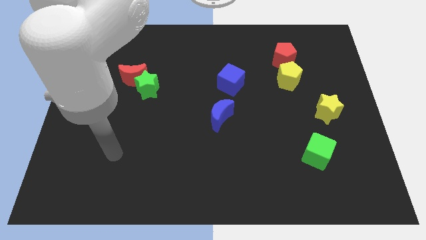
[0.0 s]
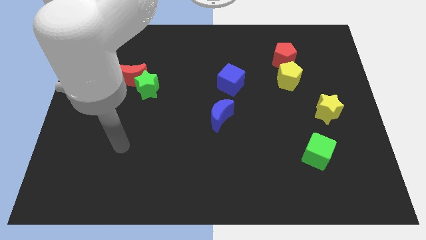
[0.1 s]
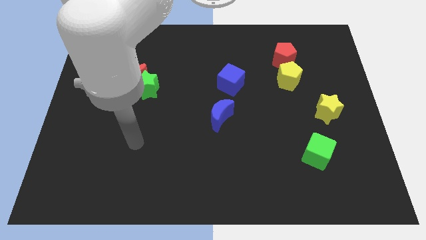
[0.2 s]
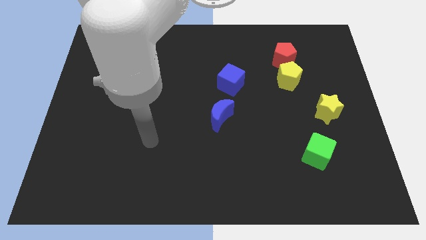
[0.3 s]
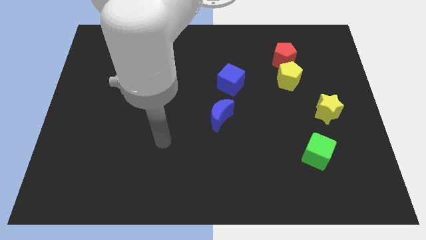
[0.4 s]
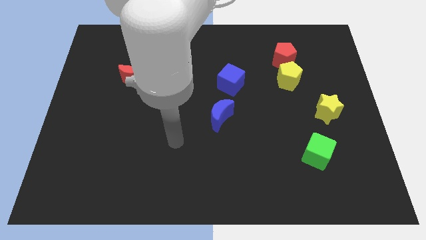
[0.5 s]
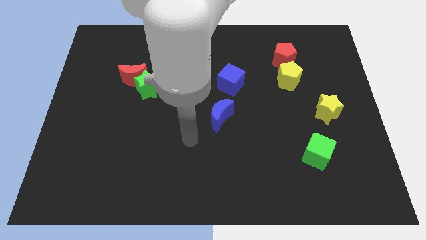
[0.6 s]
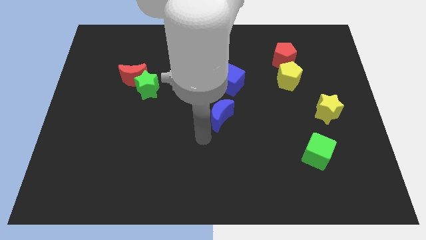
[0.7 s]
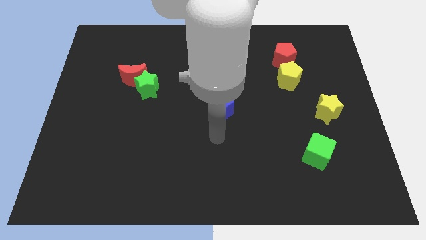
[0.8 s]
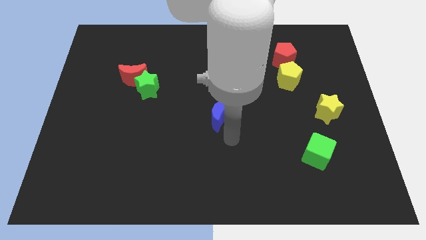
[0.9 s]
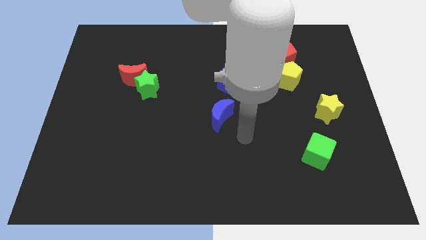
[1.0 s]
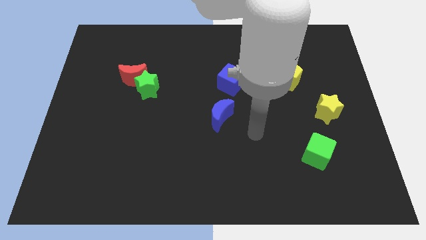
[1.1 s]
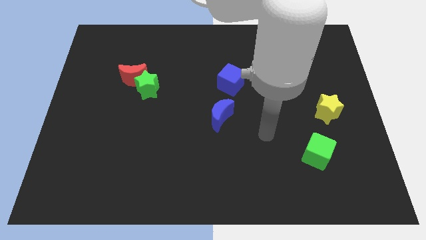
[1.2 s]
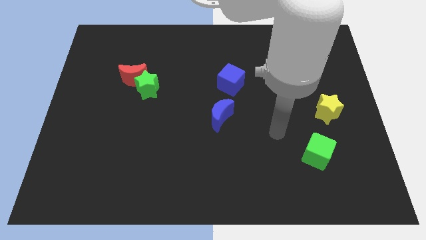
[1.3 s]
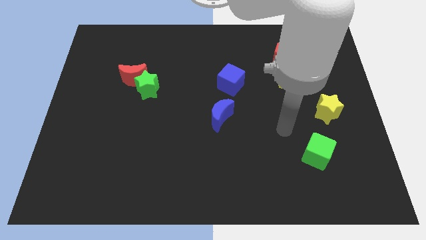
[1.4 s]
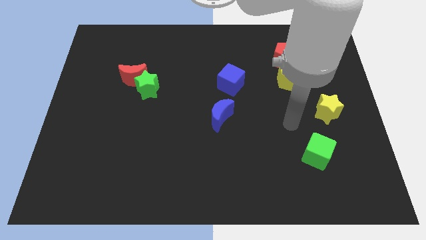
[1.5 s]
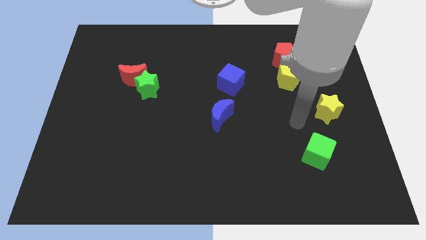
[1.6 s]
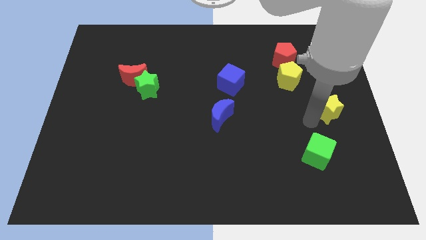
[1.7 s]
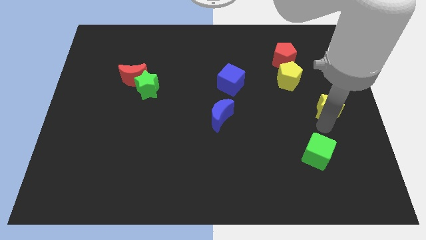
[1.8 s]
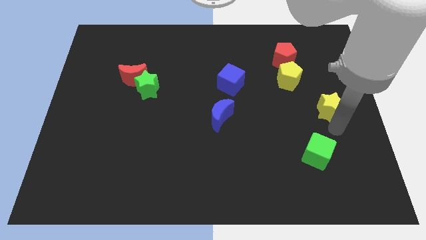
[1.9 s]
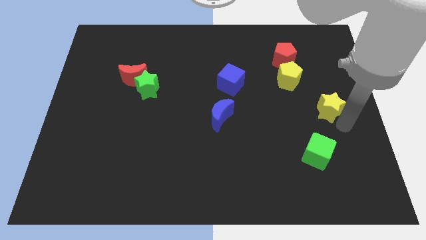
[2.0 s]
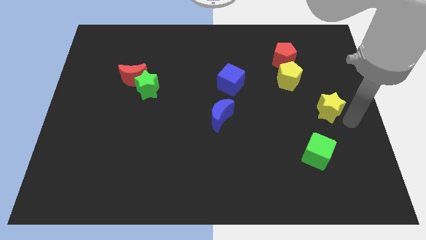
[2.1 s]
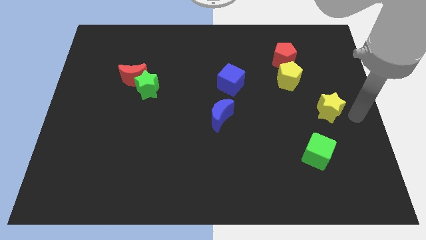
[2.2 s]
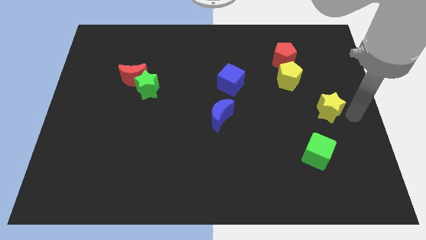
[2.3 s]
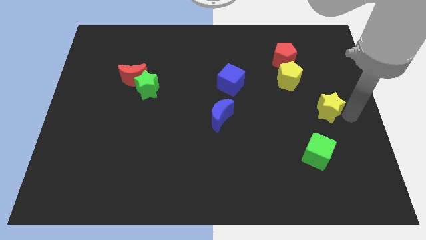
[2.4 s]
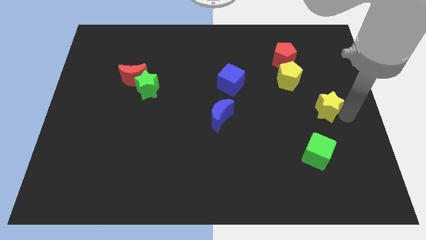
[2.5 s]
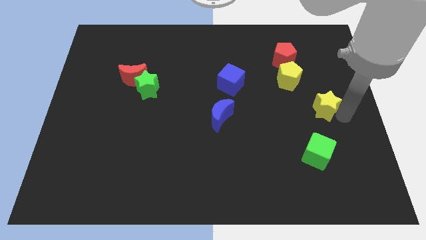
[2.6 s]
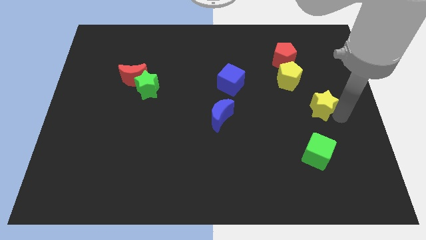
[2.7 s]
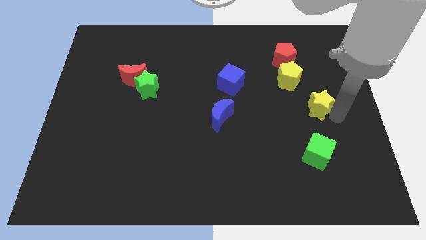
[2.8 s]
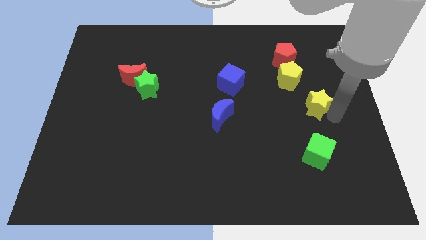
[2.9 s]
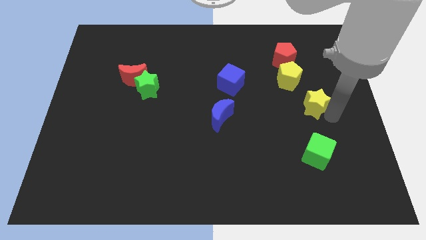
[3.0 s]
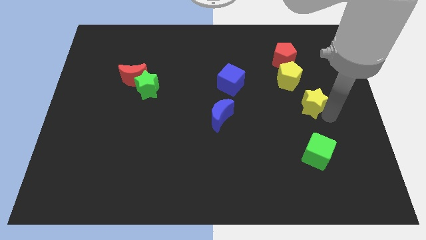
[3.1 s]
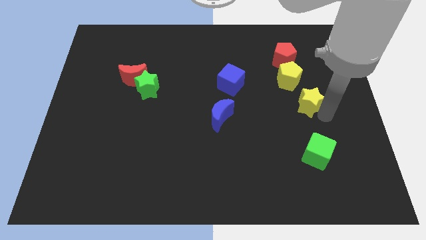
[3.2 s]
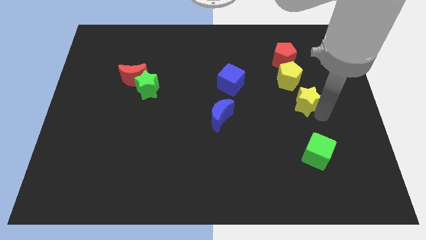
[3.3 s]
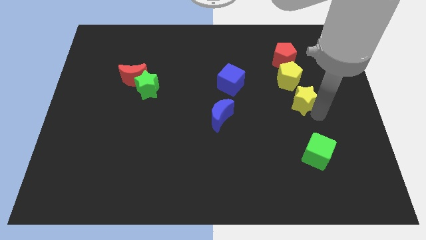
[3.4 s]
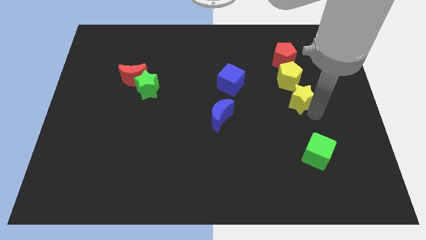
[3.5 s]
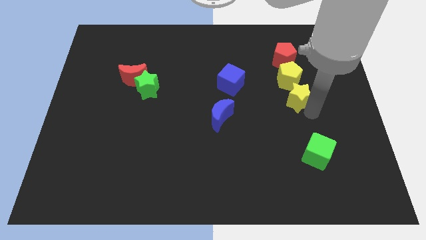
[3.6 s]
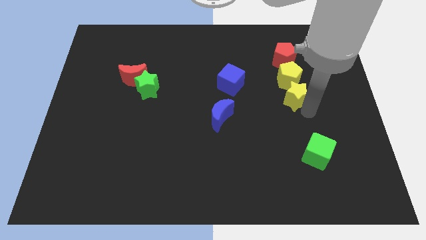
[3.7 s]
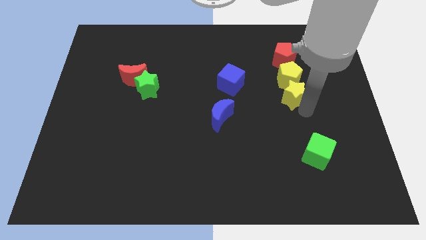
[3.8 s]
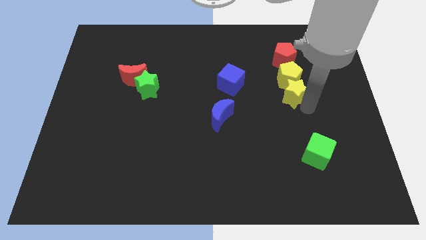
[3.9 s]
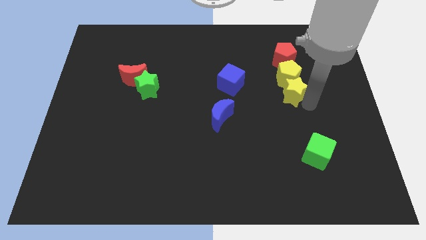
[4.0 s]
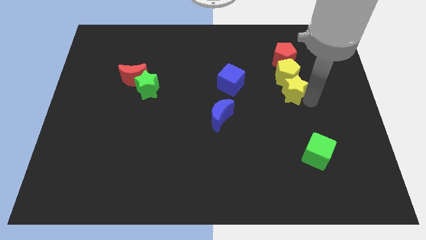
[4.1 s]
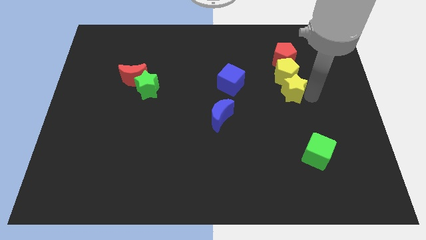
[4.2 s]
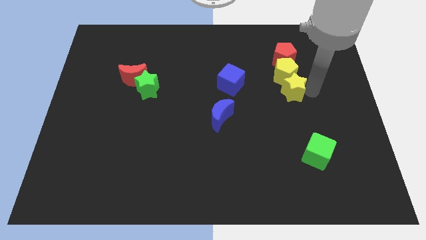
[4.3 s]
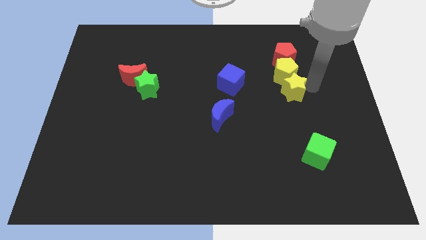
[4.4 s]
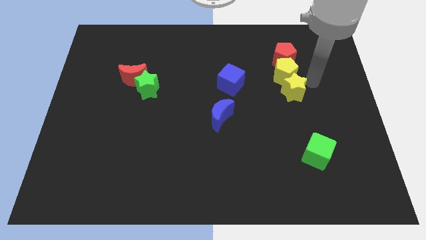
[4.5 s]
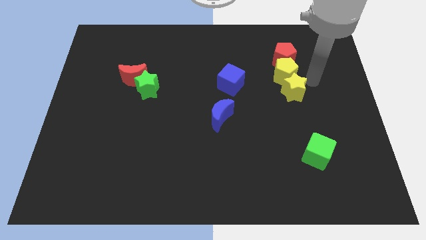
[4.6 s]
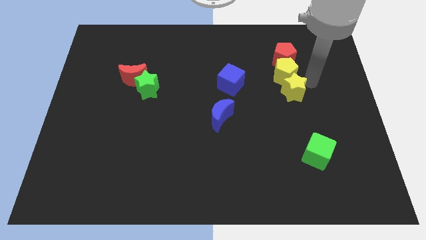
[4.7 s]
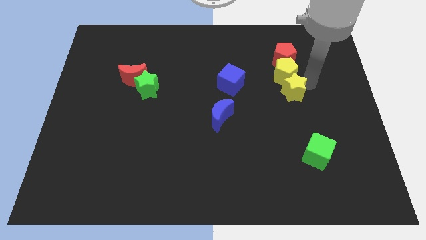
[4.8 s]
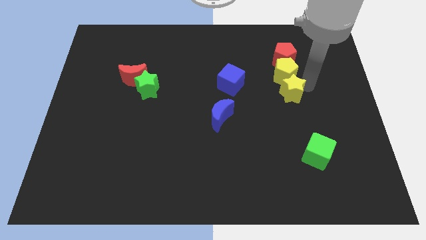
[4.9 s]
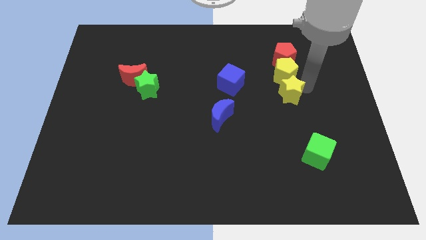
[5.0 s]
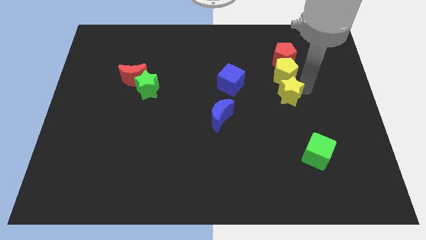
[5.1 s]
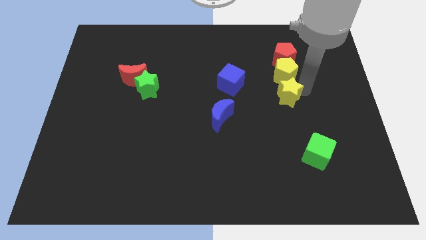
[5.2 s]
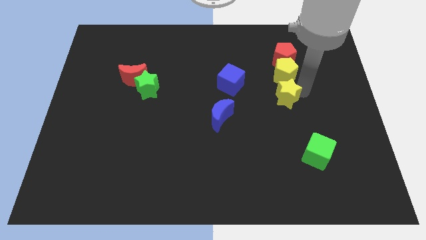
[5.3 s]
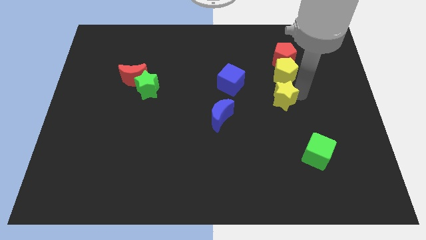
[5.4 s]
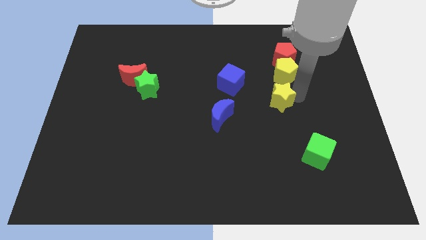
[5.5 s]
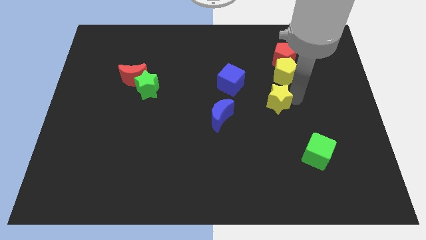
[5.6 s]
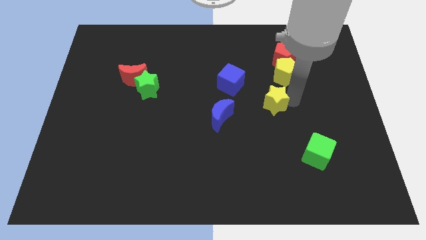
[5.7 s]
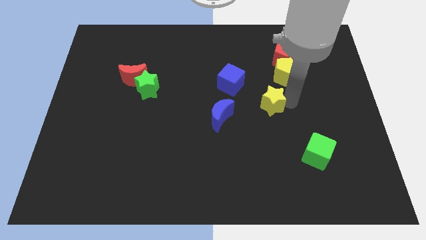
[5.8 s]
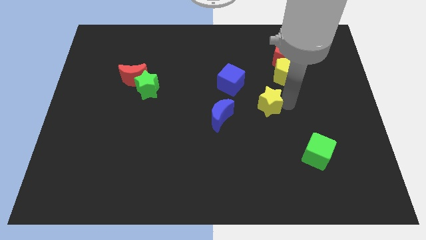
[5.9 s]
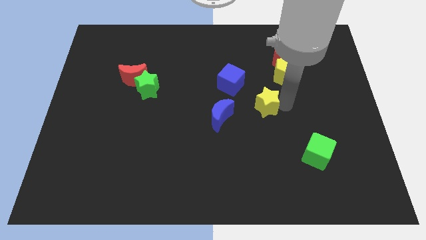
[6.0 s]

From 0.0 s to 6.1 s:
put the yellow star to the center of the board
